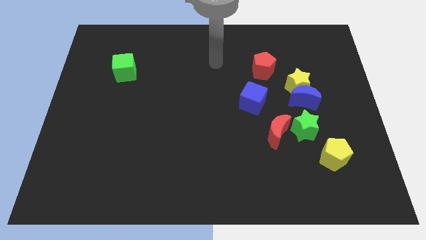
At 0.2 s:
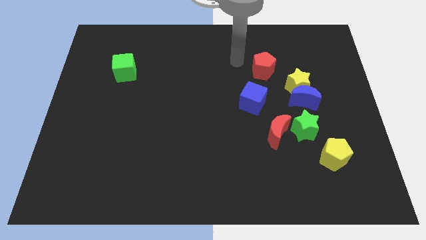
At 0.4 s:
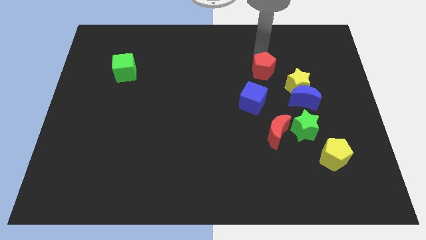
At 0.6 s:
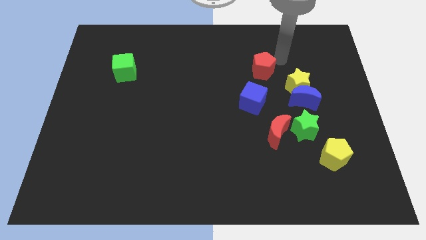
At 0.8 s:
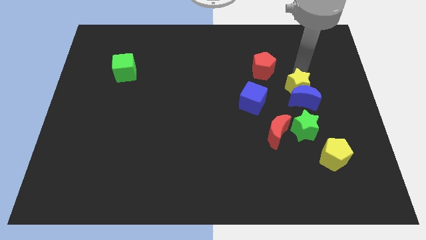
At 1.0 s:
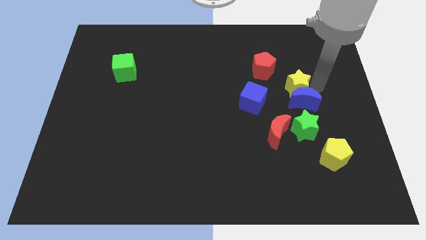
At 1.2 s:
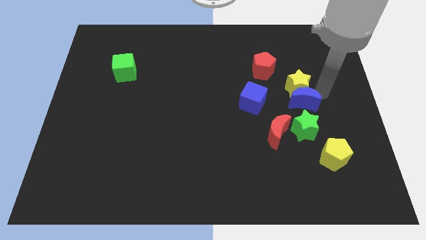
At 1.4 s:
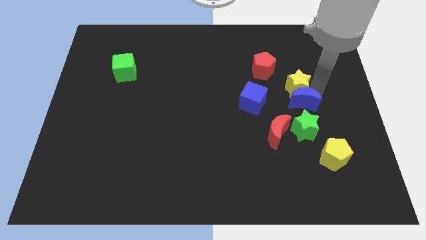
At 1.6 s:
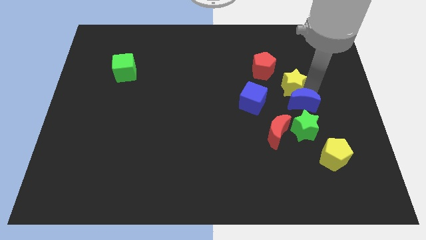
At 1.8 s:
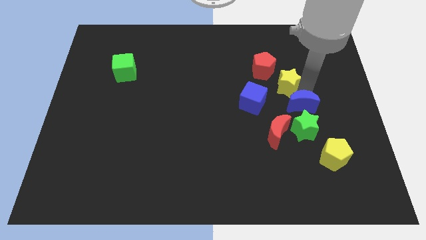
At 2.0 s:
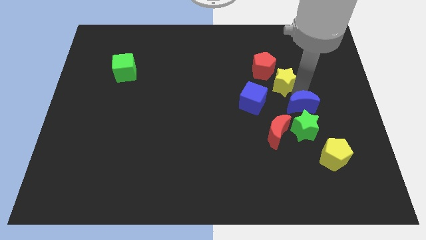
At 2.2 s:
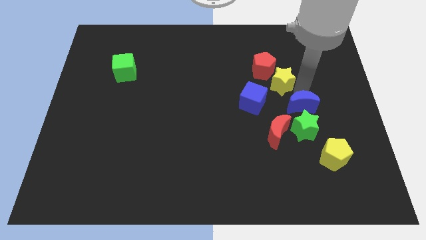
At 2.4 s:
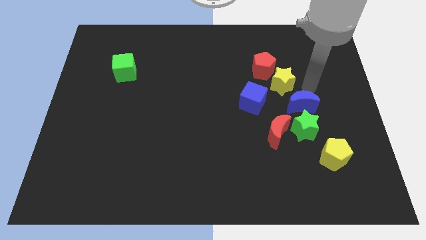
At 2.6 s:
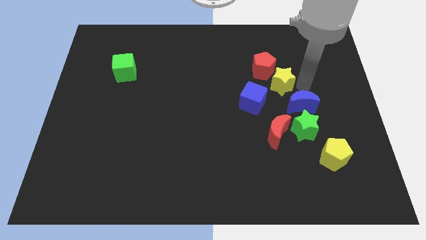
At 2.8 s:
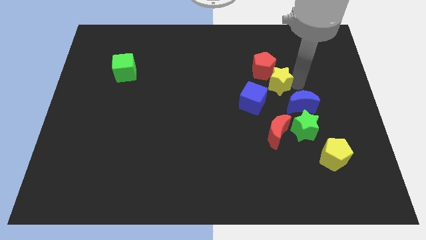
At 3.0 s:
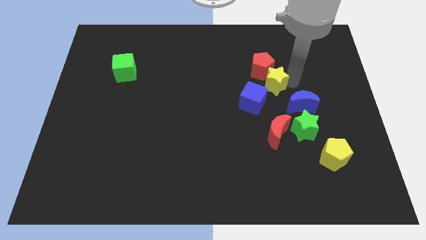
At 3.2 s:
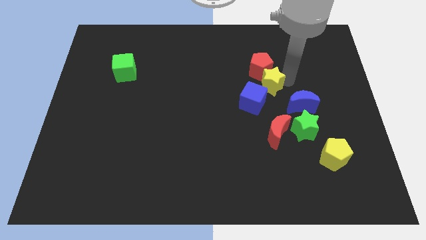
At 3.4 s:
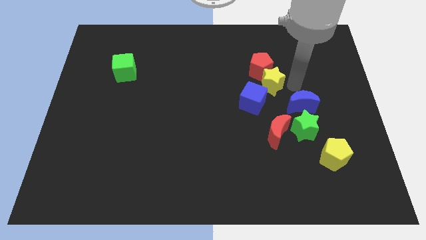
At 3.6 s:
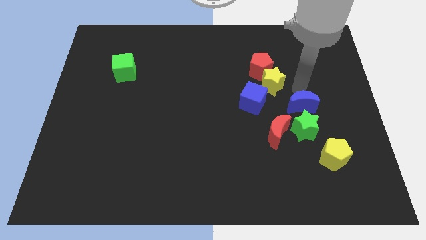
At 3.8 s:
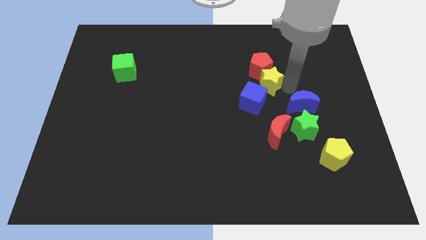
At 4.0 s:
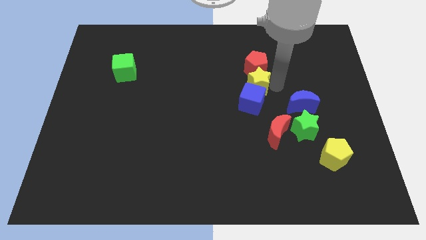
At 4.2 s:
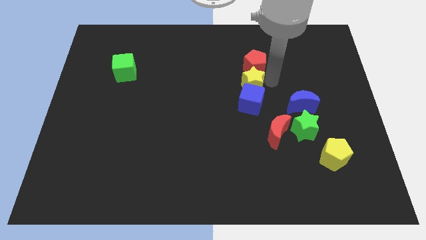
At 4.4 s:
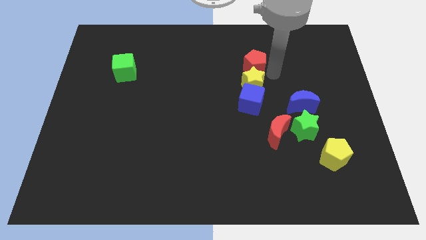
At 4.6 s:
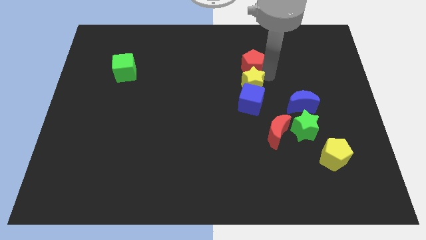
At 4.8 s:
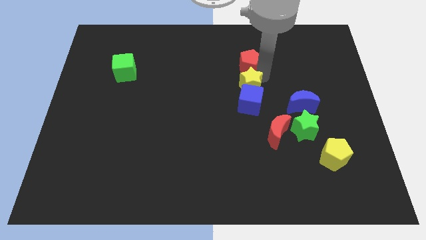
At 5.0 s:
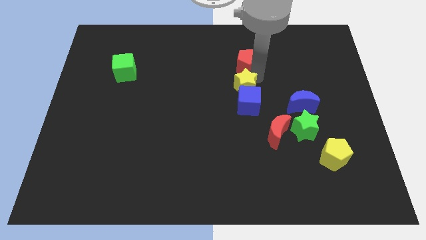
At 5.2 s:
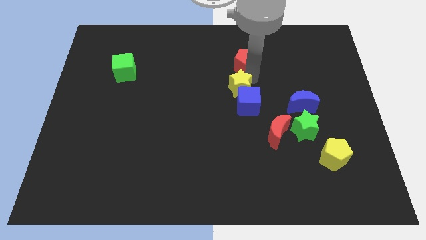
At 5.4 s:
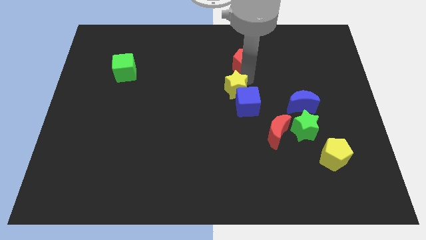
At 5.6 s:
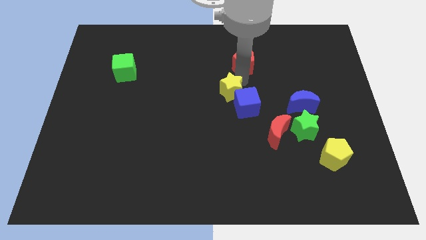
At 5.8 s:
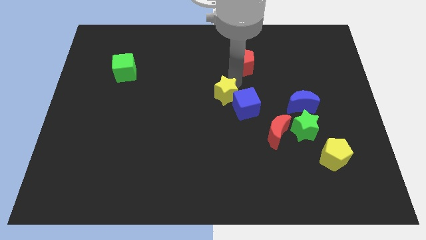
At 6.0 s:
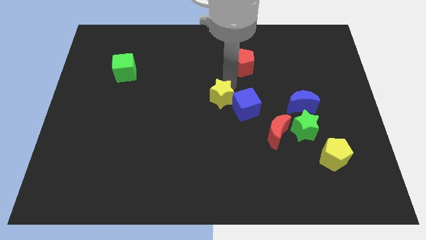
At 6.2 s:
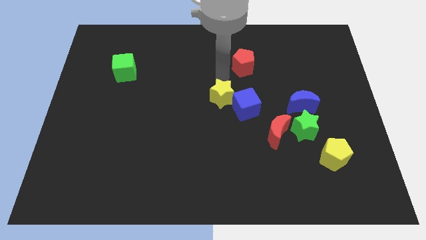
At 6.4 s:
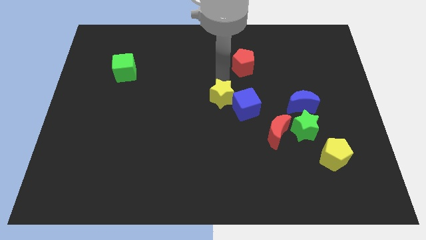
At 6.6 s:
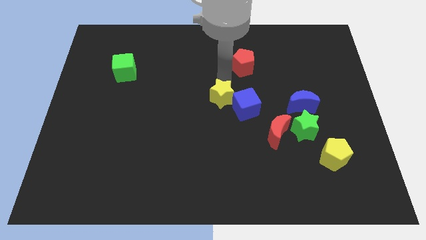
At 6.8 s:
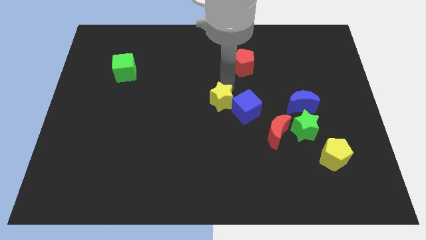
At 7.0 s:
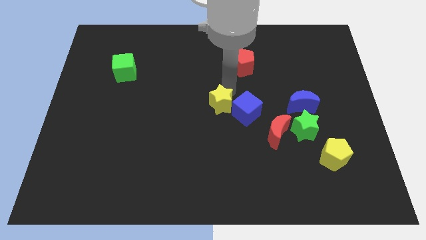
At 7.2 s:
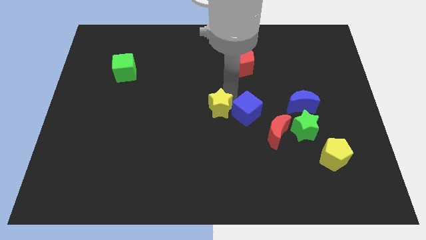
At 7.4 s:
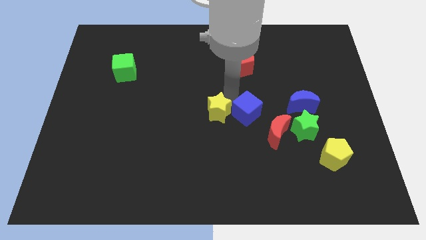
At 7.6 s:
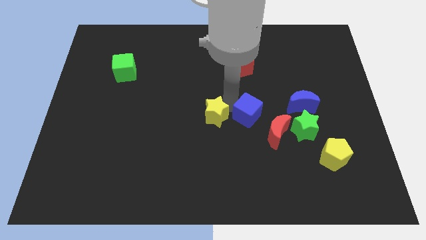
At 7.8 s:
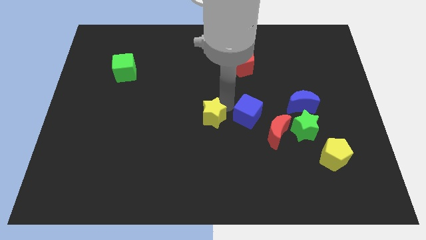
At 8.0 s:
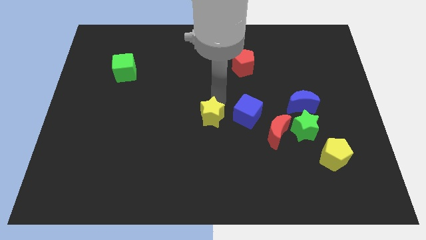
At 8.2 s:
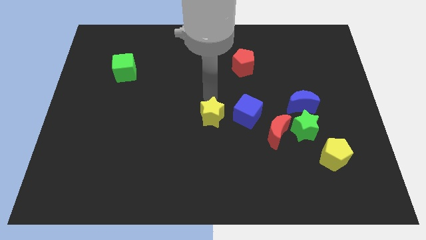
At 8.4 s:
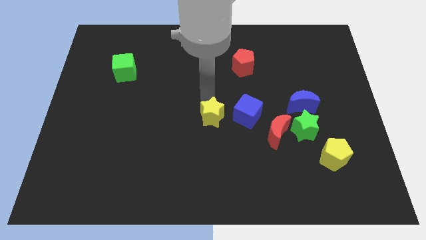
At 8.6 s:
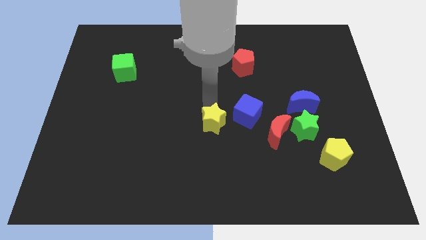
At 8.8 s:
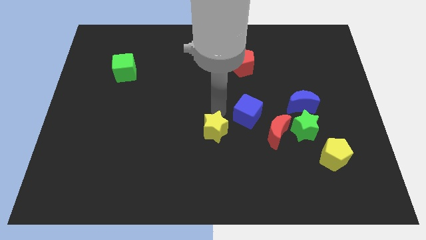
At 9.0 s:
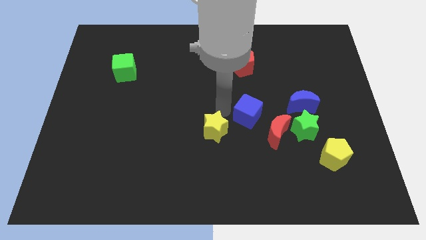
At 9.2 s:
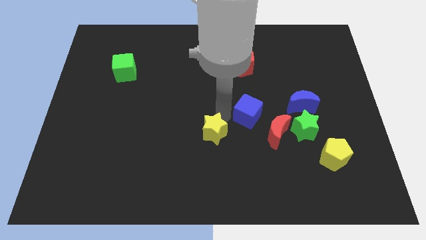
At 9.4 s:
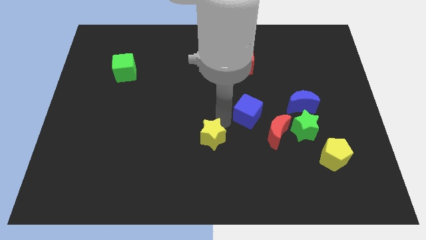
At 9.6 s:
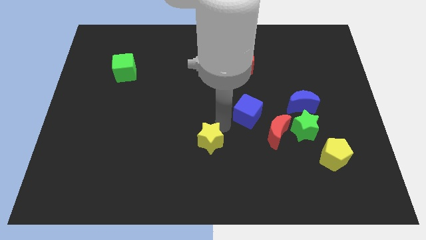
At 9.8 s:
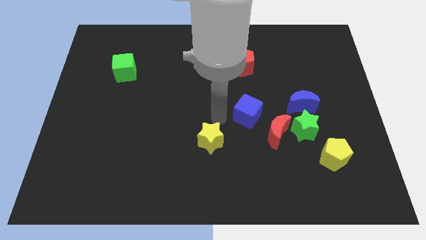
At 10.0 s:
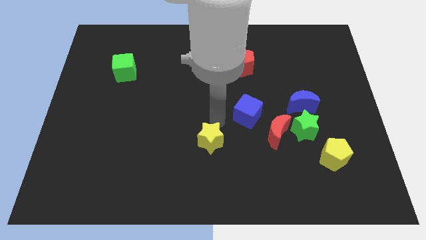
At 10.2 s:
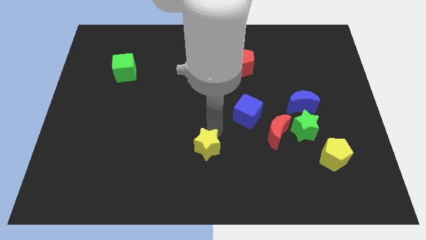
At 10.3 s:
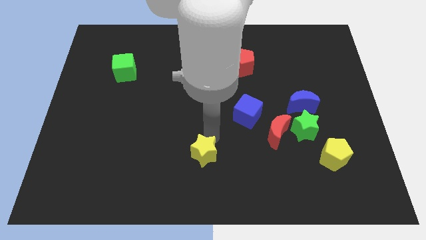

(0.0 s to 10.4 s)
push the yellow star to the bottom side

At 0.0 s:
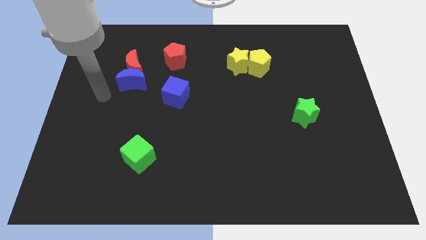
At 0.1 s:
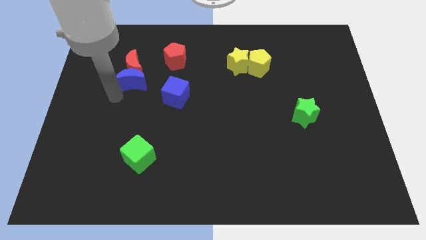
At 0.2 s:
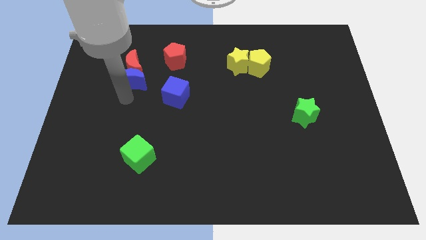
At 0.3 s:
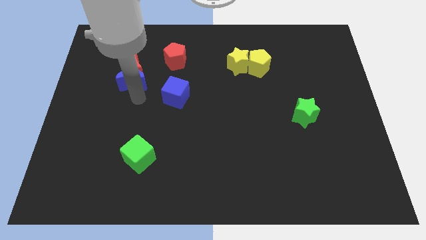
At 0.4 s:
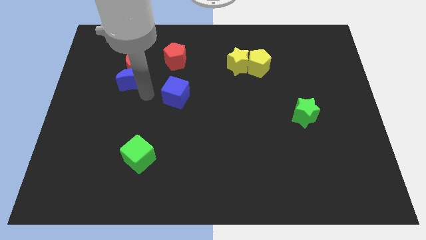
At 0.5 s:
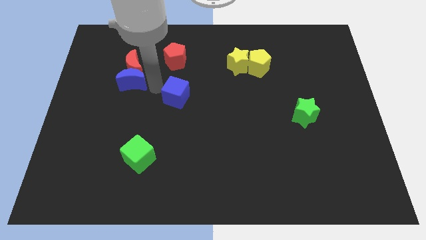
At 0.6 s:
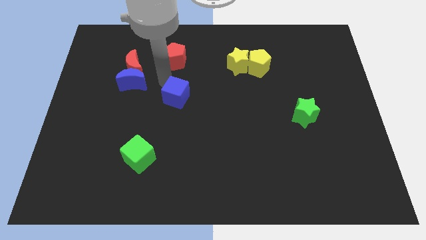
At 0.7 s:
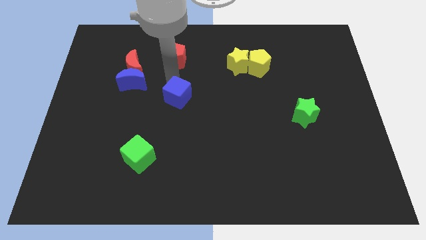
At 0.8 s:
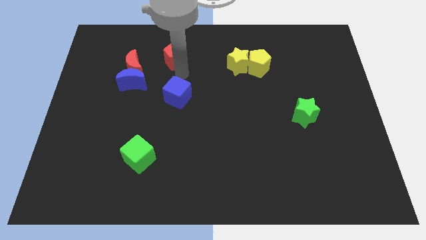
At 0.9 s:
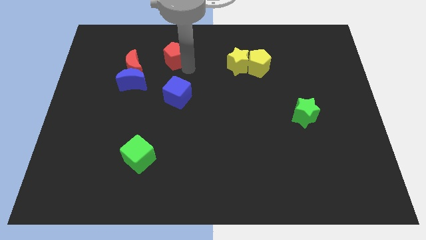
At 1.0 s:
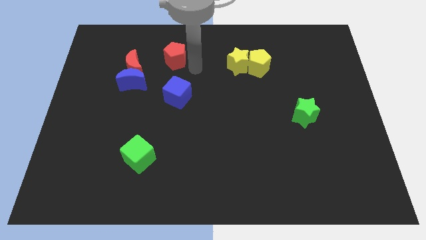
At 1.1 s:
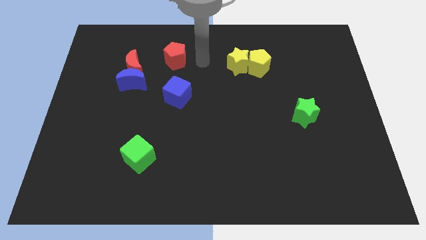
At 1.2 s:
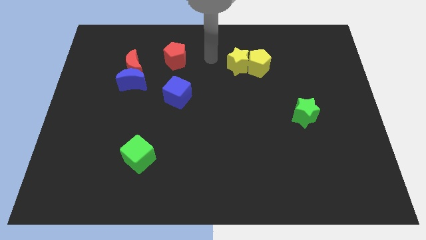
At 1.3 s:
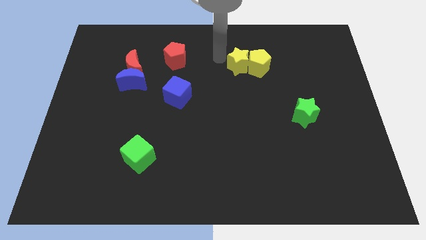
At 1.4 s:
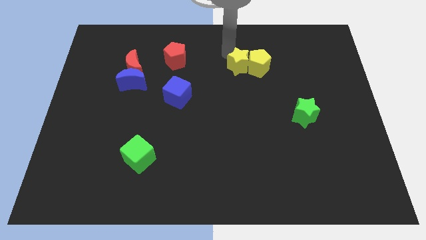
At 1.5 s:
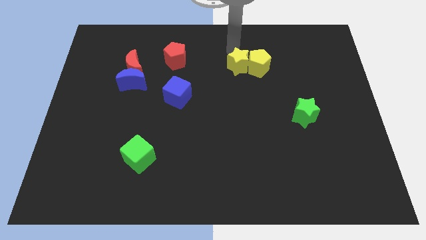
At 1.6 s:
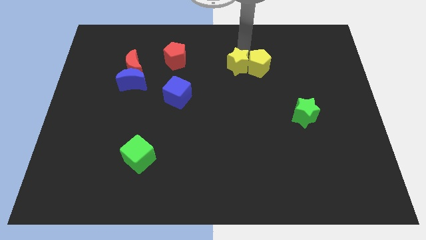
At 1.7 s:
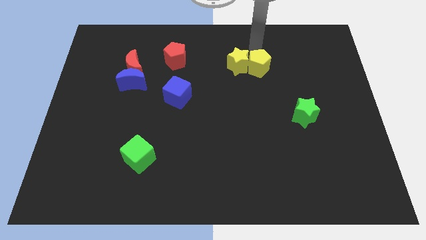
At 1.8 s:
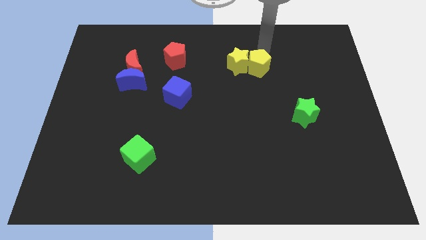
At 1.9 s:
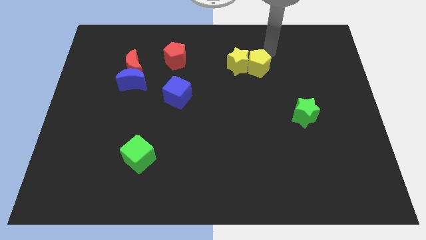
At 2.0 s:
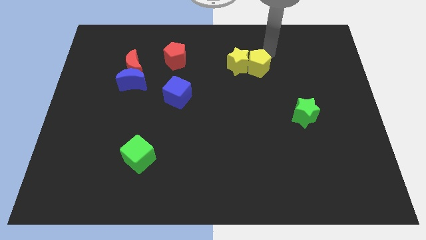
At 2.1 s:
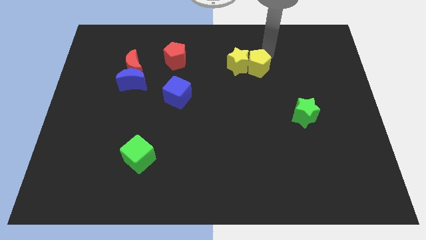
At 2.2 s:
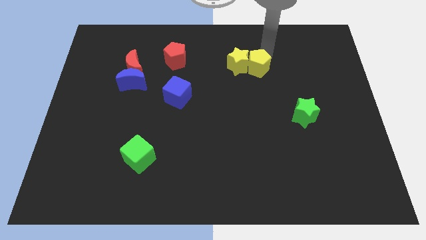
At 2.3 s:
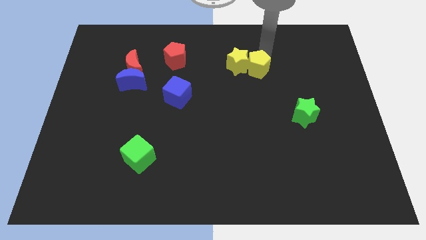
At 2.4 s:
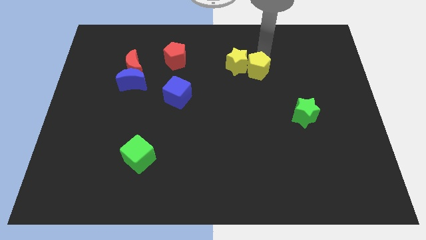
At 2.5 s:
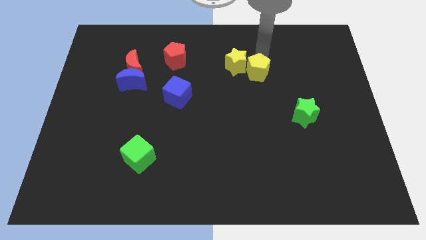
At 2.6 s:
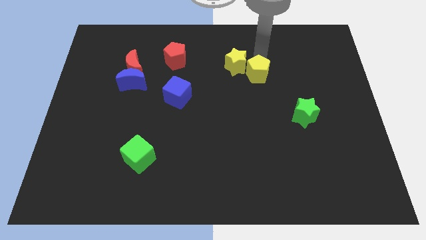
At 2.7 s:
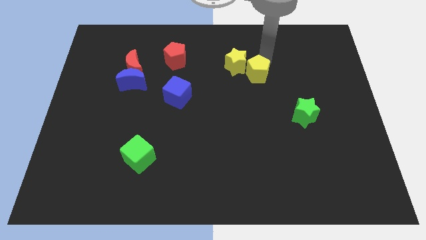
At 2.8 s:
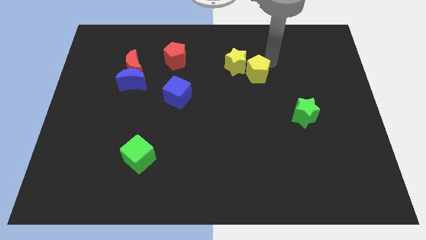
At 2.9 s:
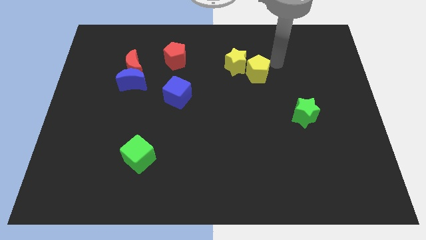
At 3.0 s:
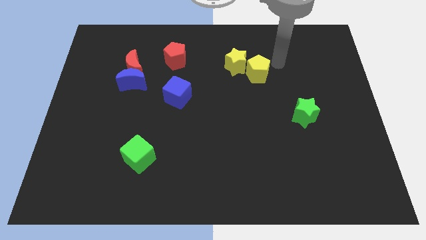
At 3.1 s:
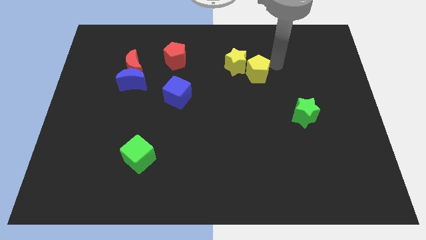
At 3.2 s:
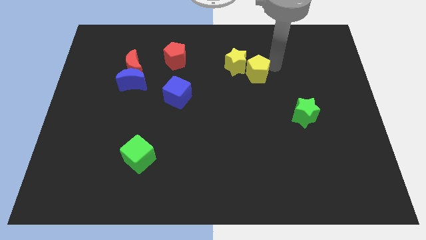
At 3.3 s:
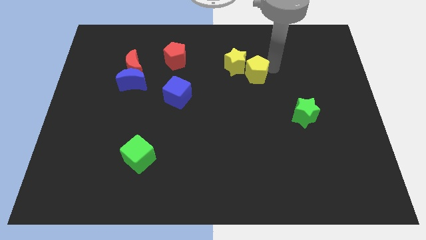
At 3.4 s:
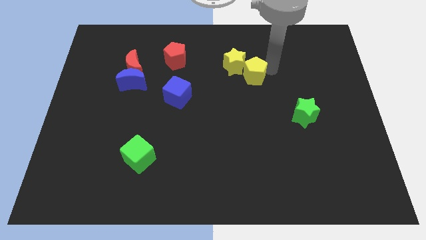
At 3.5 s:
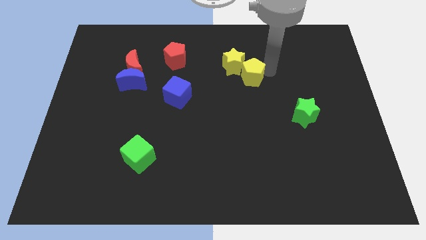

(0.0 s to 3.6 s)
push the yellow pentagon to the center
